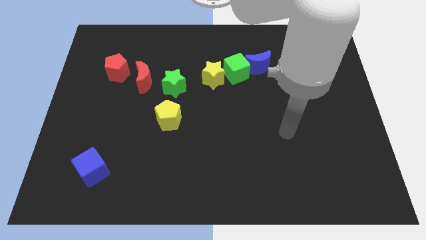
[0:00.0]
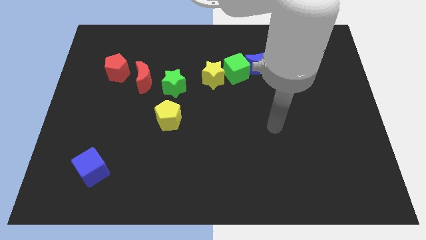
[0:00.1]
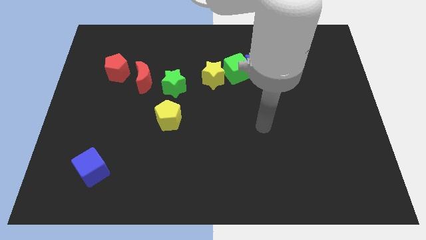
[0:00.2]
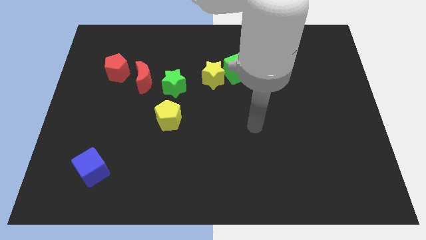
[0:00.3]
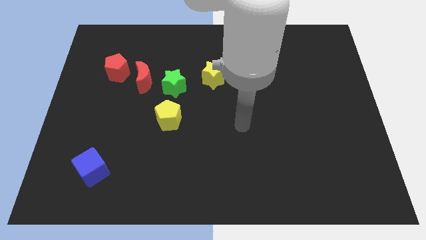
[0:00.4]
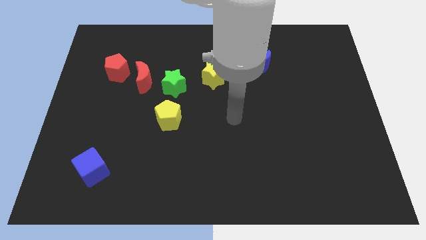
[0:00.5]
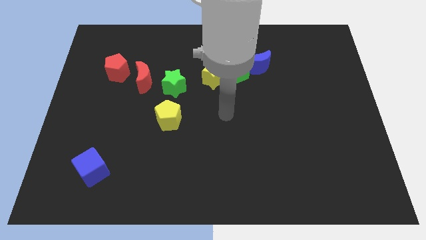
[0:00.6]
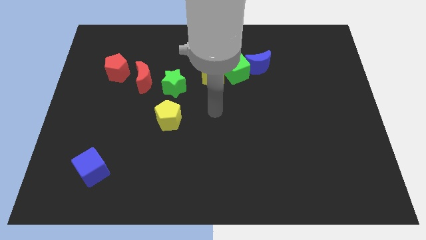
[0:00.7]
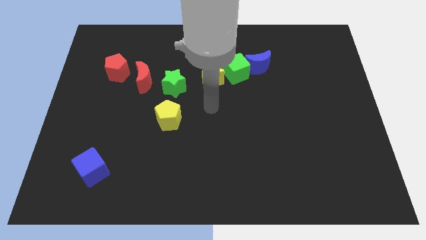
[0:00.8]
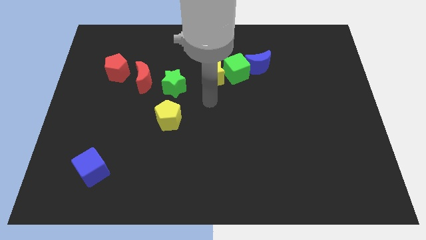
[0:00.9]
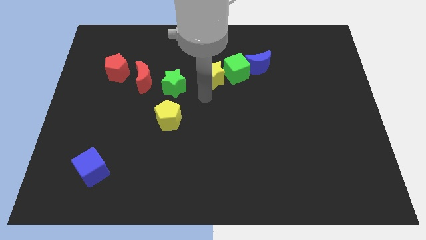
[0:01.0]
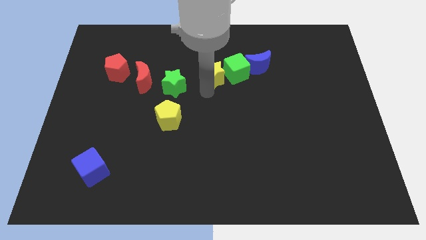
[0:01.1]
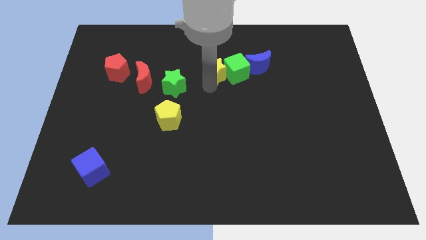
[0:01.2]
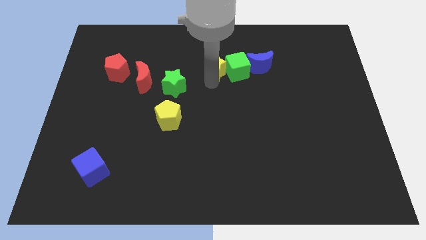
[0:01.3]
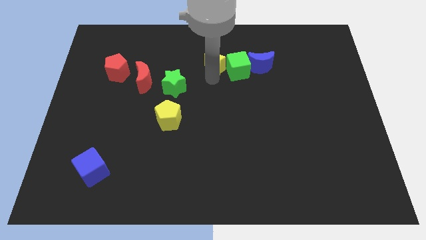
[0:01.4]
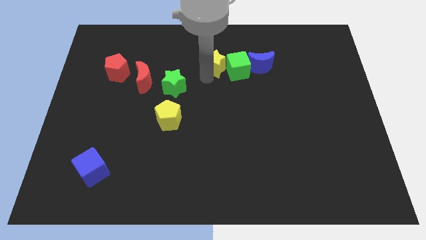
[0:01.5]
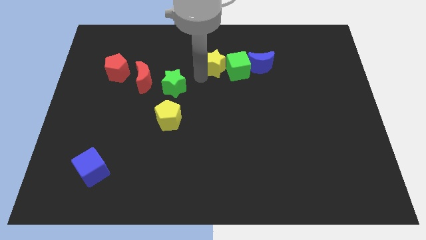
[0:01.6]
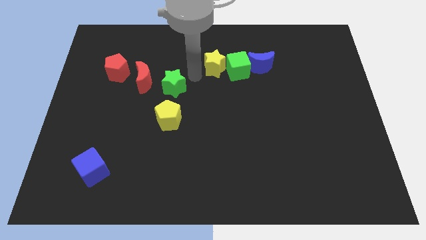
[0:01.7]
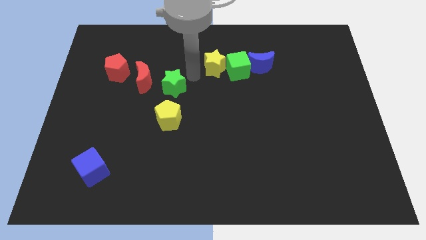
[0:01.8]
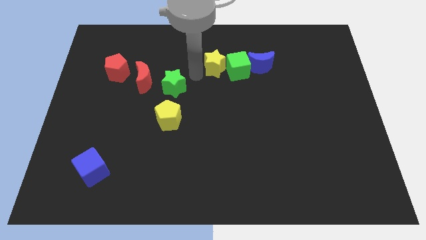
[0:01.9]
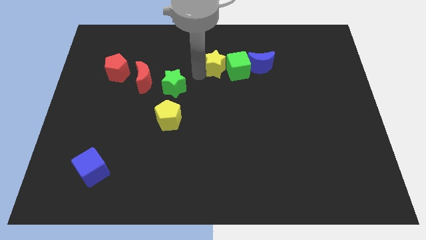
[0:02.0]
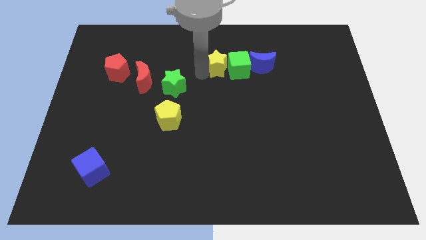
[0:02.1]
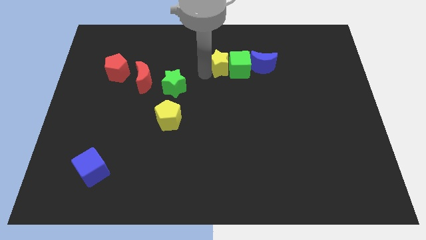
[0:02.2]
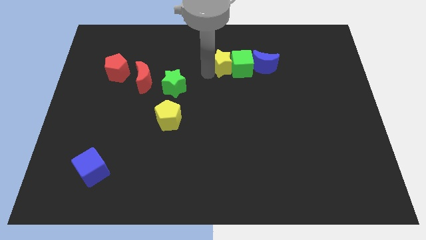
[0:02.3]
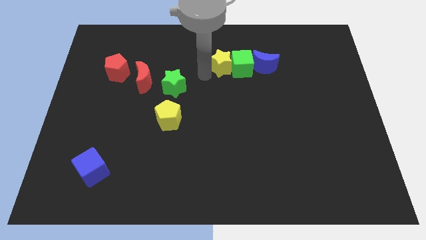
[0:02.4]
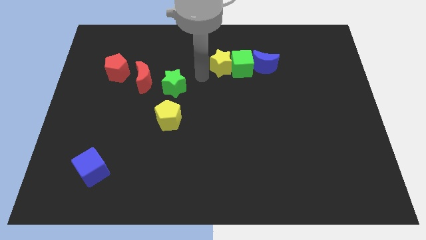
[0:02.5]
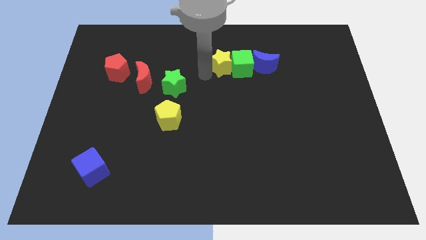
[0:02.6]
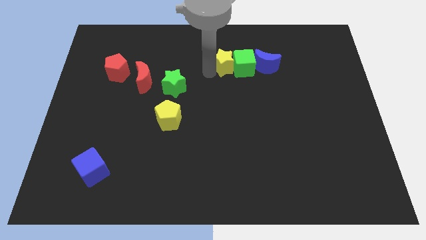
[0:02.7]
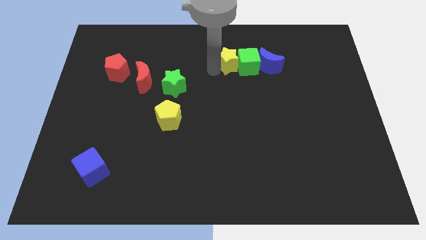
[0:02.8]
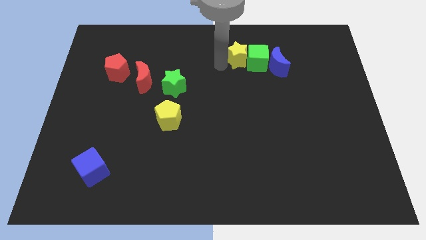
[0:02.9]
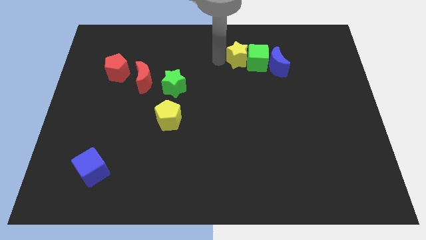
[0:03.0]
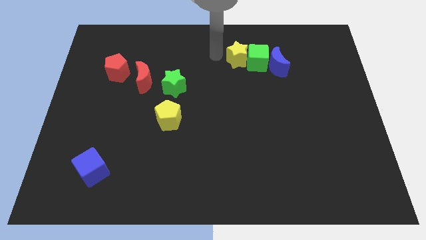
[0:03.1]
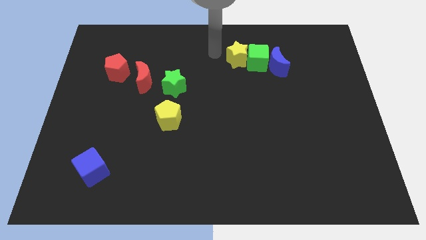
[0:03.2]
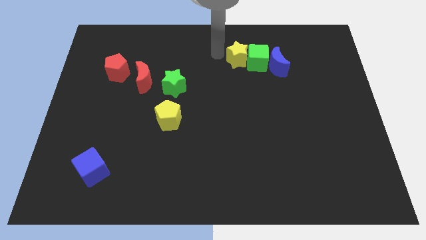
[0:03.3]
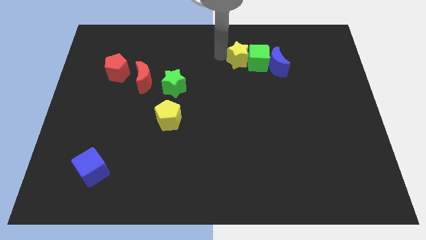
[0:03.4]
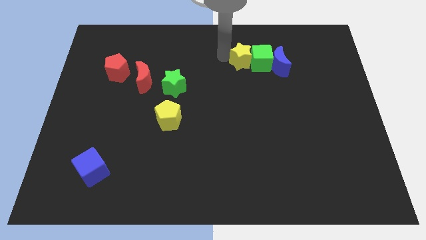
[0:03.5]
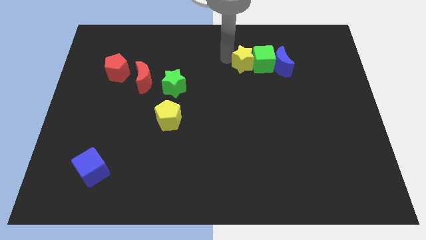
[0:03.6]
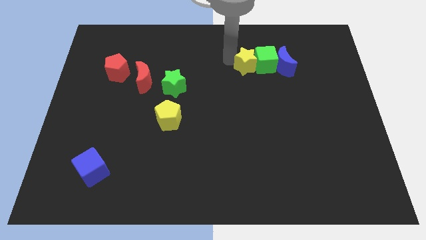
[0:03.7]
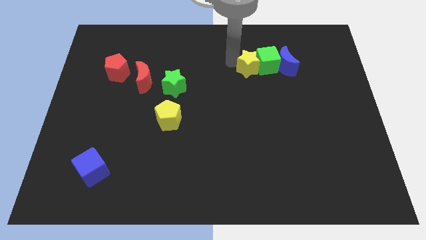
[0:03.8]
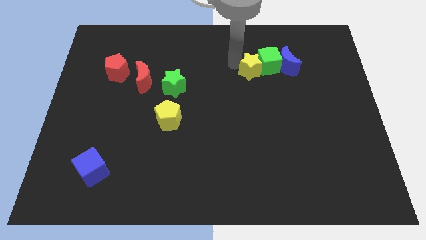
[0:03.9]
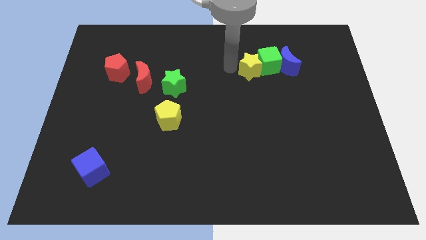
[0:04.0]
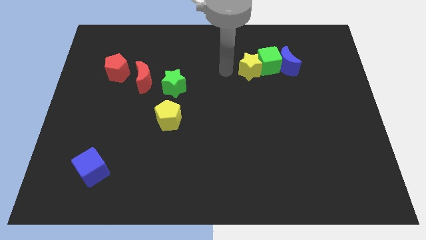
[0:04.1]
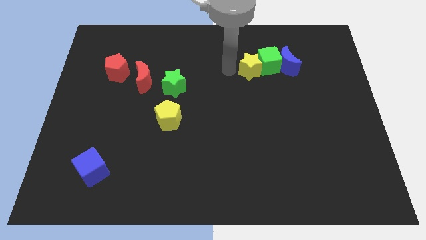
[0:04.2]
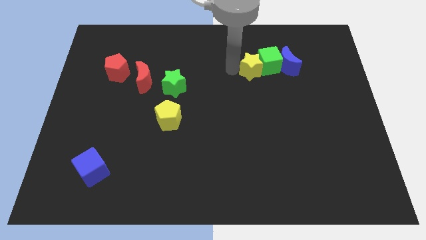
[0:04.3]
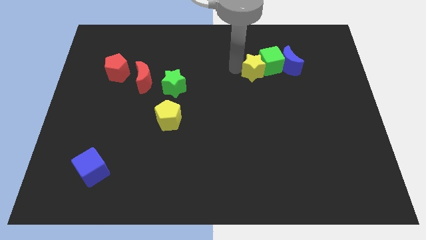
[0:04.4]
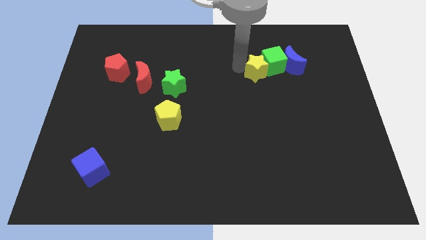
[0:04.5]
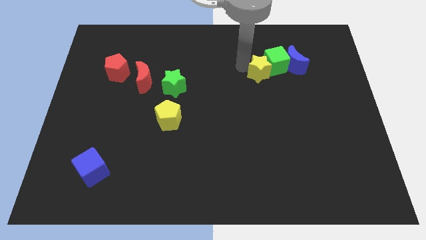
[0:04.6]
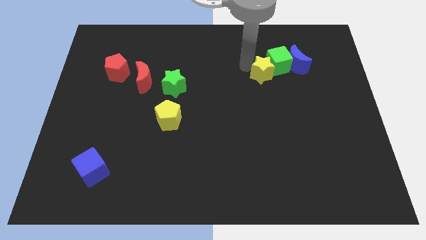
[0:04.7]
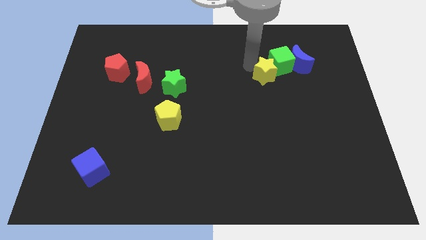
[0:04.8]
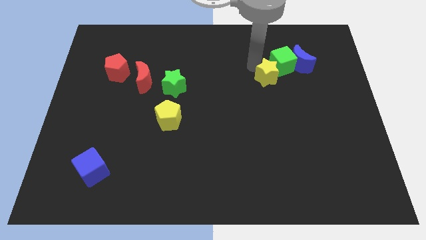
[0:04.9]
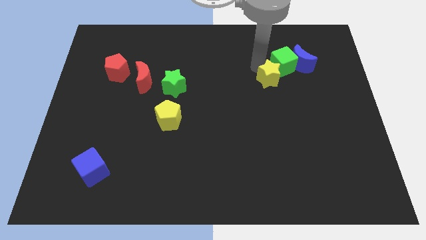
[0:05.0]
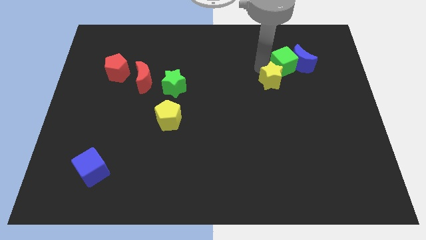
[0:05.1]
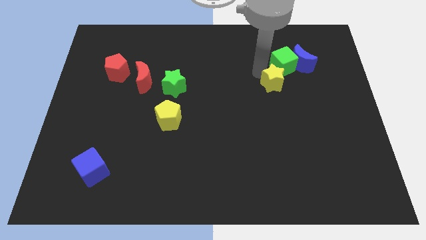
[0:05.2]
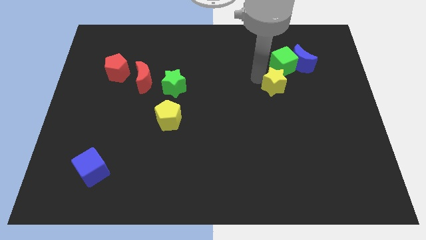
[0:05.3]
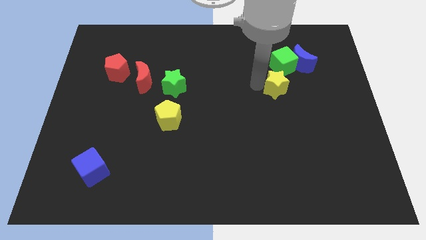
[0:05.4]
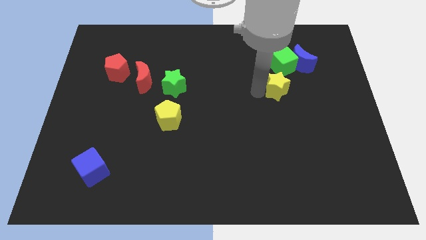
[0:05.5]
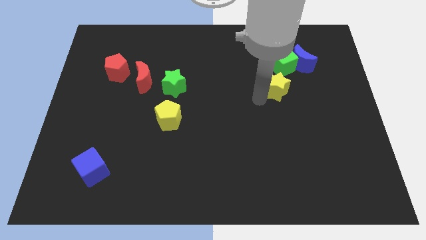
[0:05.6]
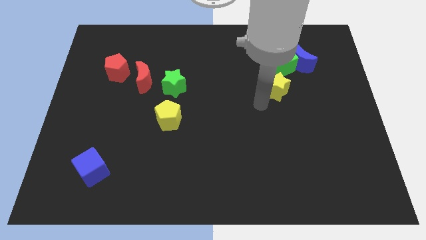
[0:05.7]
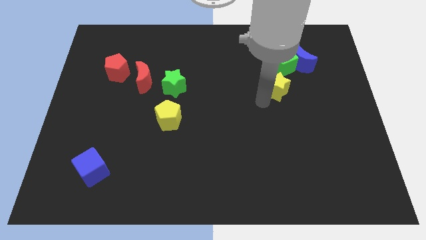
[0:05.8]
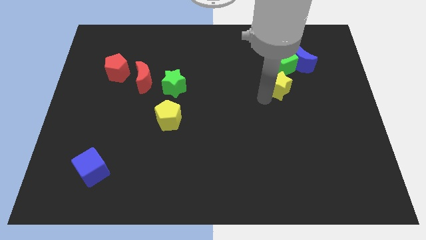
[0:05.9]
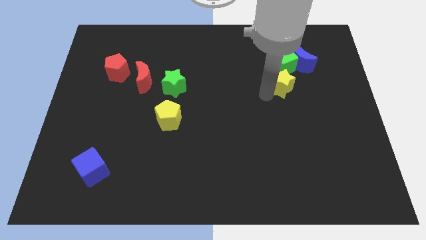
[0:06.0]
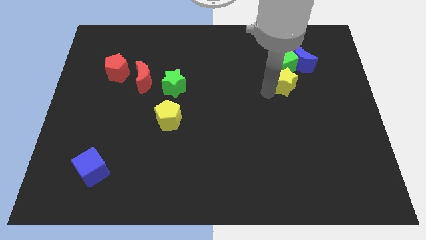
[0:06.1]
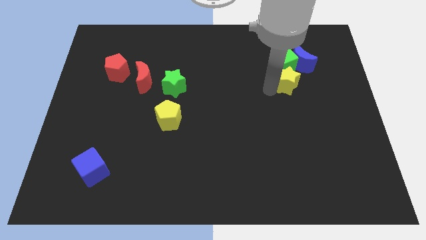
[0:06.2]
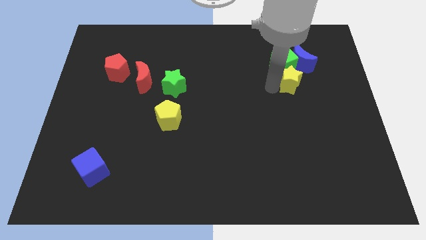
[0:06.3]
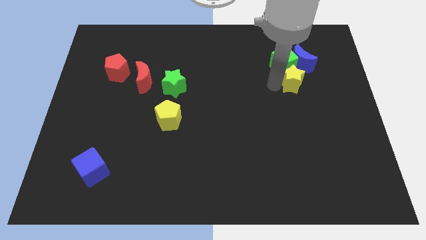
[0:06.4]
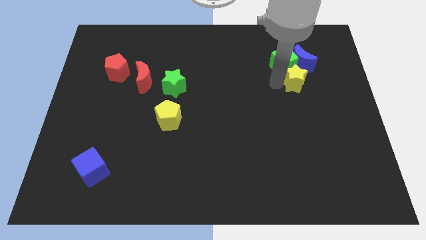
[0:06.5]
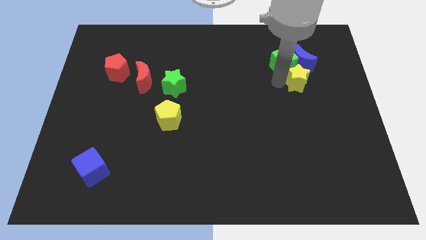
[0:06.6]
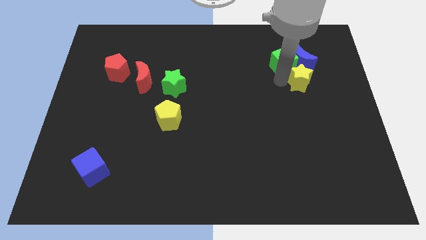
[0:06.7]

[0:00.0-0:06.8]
move the yellow star towards the blue moon
